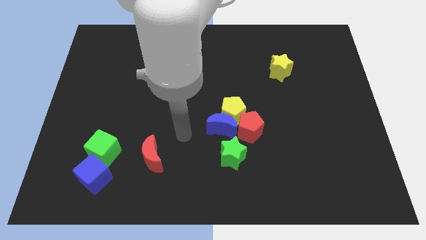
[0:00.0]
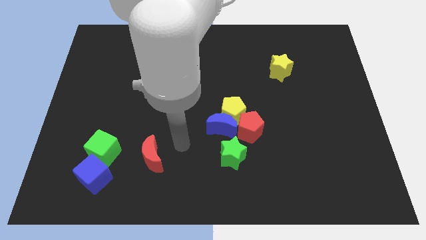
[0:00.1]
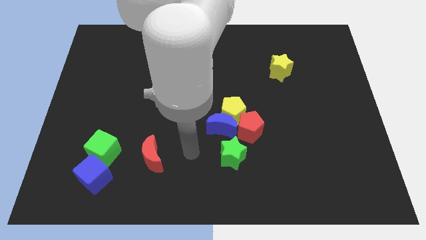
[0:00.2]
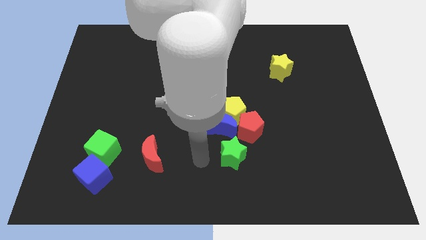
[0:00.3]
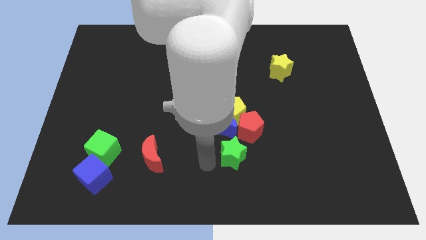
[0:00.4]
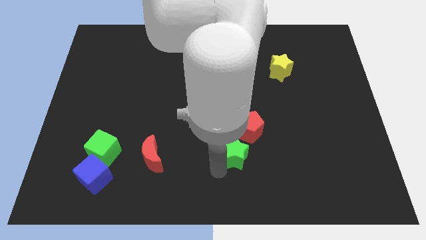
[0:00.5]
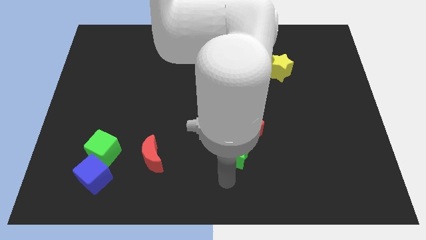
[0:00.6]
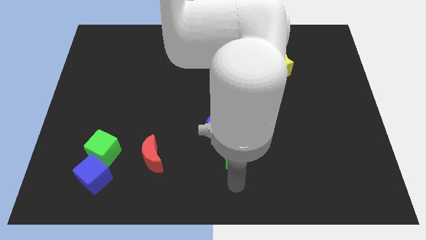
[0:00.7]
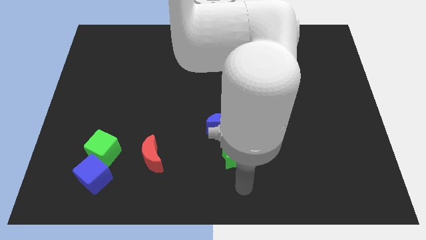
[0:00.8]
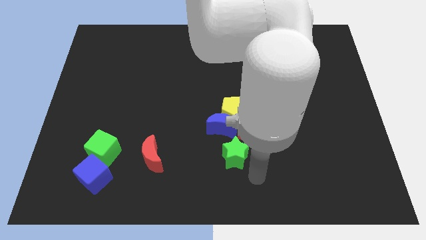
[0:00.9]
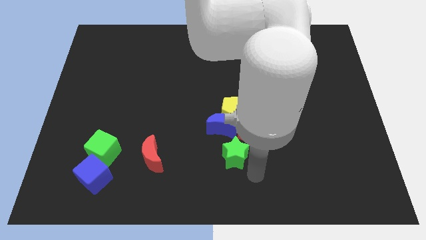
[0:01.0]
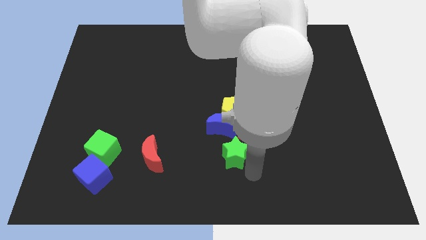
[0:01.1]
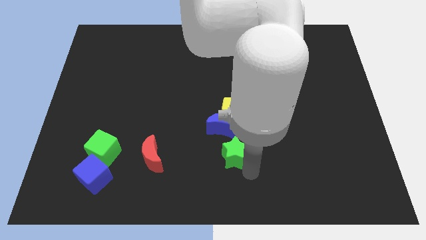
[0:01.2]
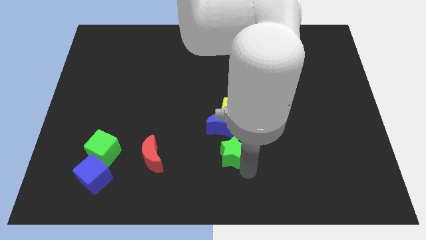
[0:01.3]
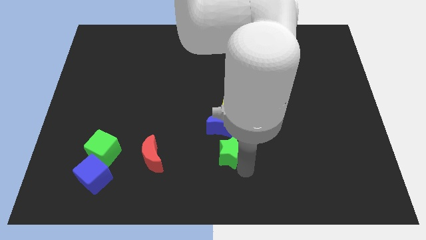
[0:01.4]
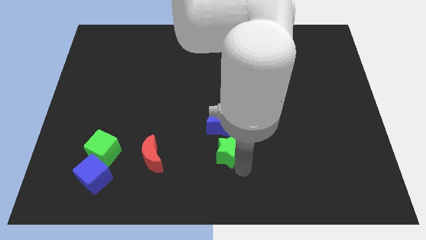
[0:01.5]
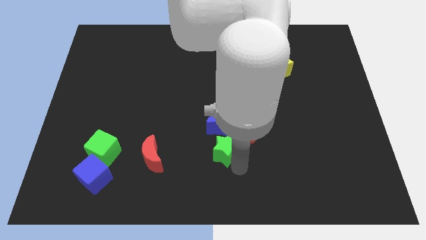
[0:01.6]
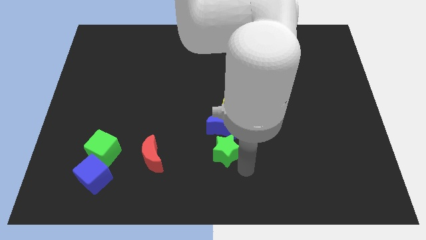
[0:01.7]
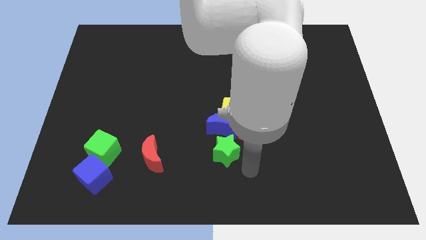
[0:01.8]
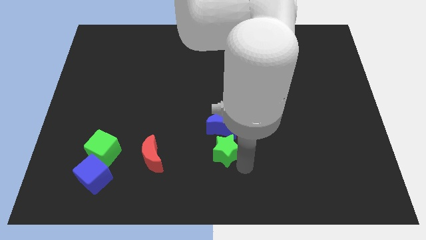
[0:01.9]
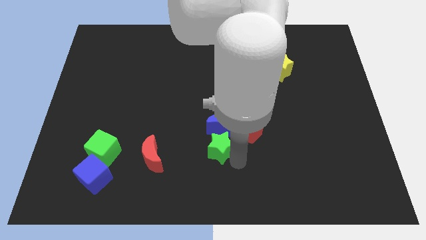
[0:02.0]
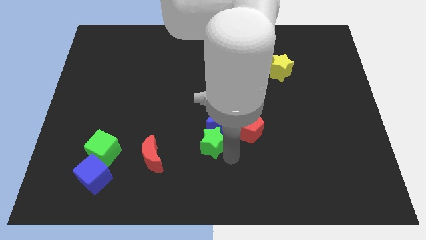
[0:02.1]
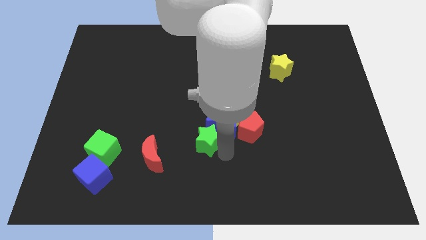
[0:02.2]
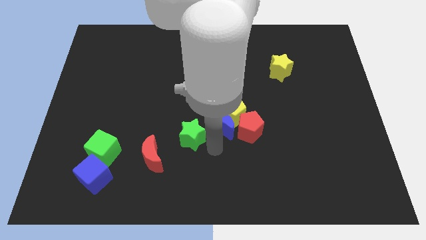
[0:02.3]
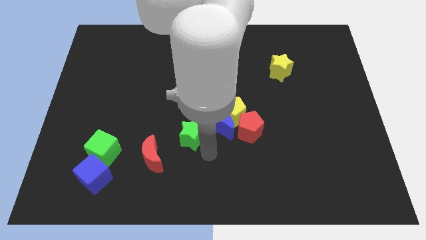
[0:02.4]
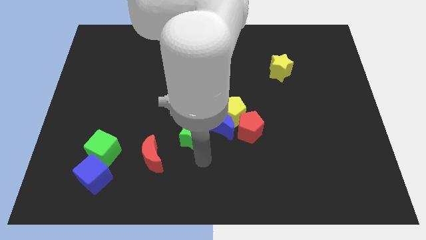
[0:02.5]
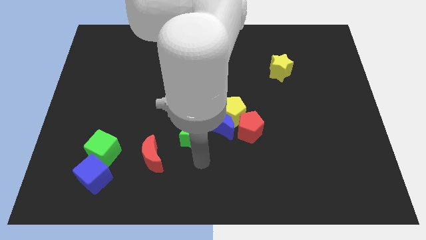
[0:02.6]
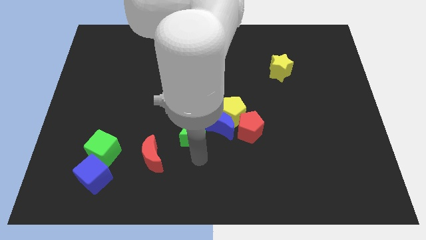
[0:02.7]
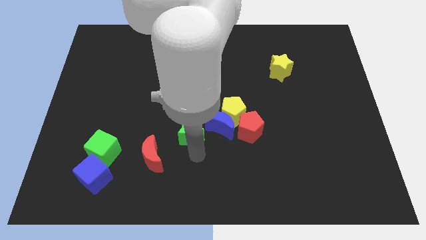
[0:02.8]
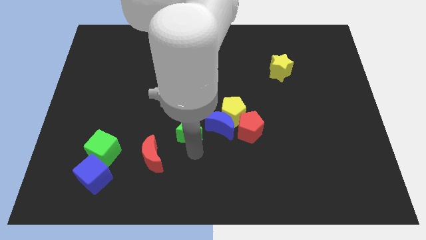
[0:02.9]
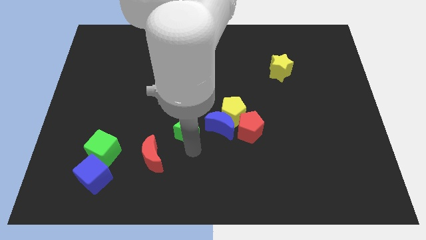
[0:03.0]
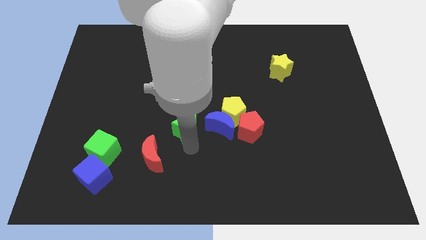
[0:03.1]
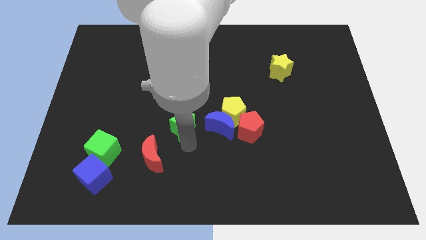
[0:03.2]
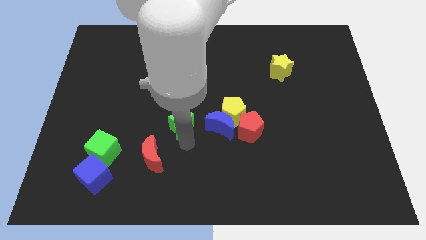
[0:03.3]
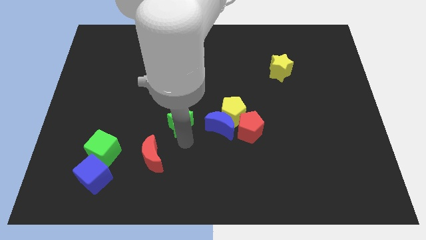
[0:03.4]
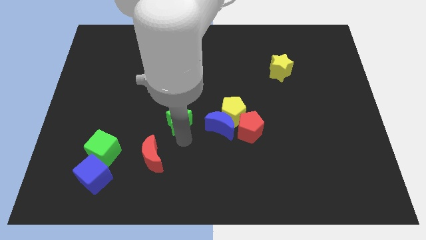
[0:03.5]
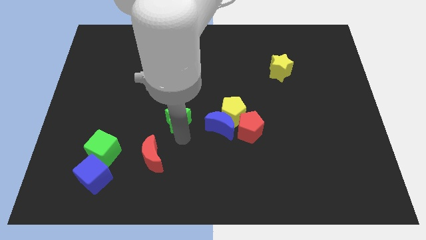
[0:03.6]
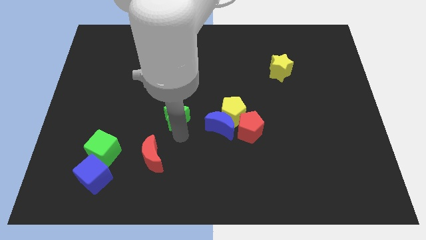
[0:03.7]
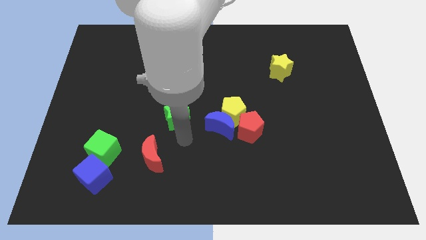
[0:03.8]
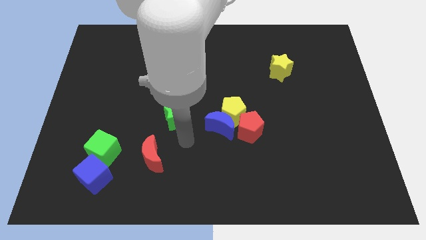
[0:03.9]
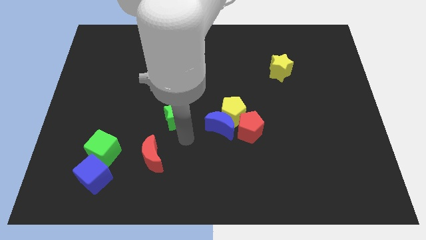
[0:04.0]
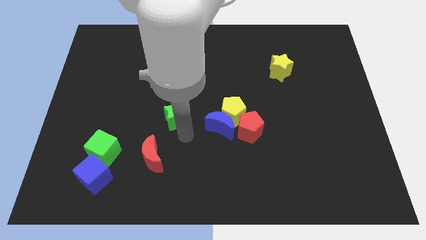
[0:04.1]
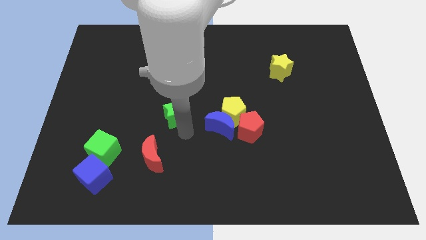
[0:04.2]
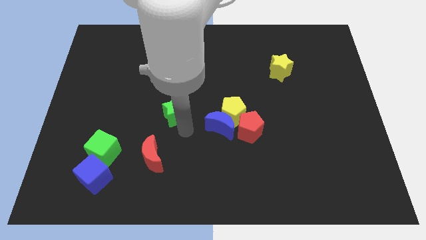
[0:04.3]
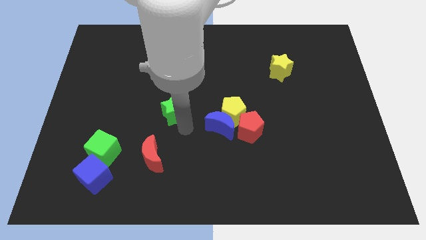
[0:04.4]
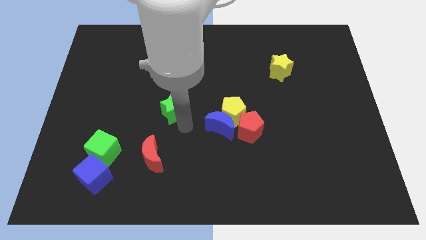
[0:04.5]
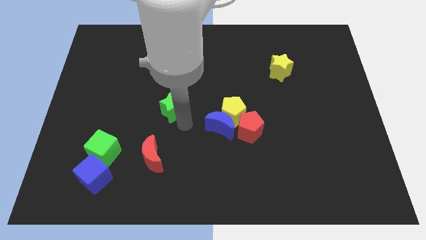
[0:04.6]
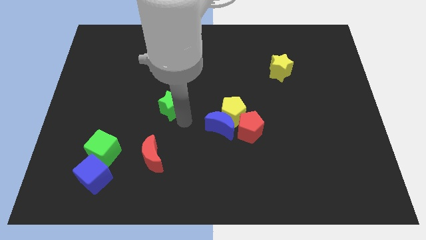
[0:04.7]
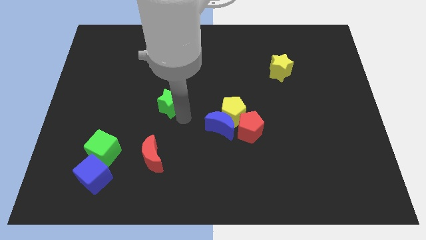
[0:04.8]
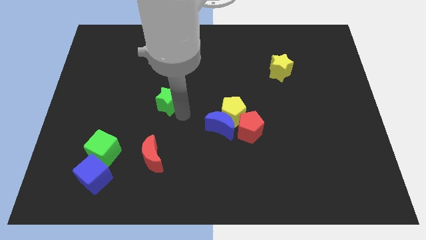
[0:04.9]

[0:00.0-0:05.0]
push the green star diagonally up and left

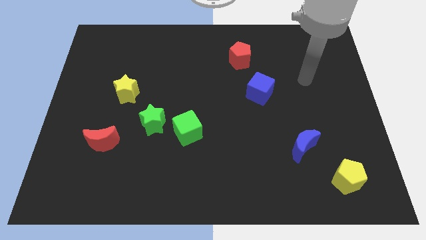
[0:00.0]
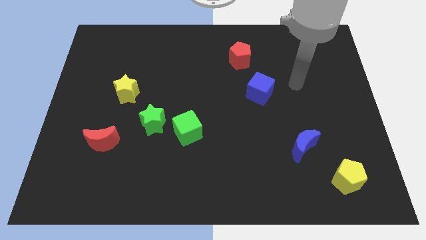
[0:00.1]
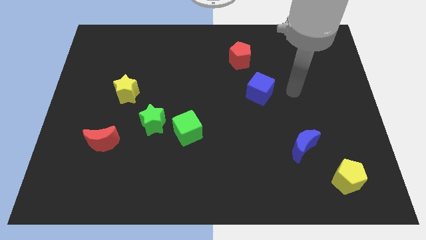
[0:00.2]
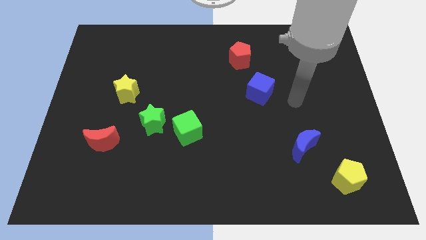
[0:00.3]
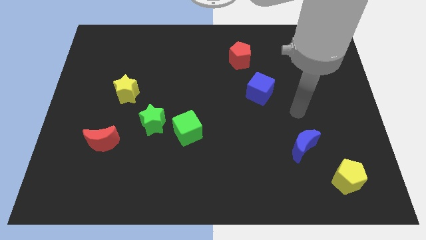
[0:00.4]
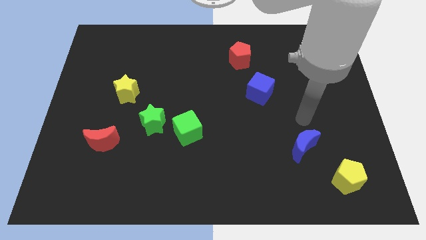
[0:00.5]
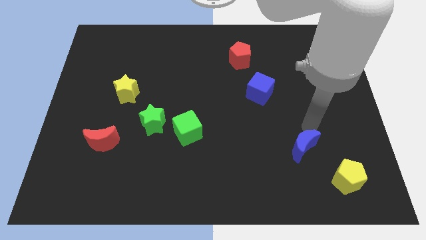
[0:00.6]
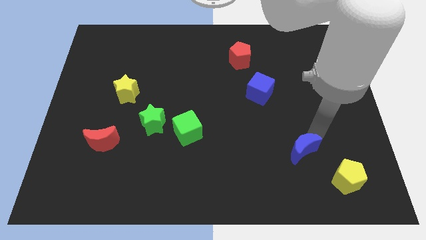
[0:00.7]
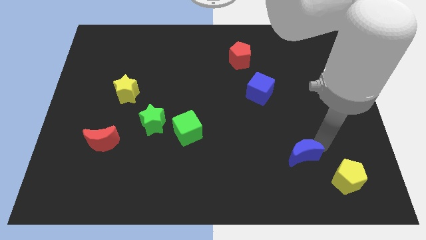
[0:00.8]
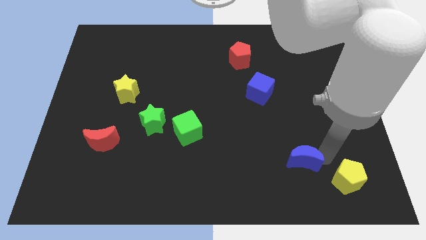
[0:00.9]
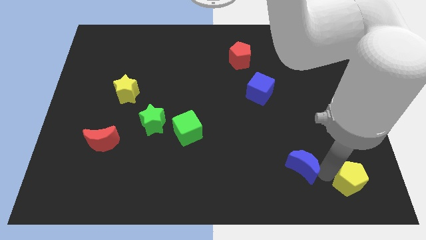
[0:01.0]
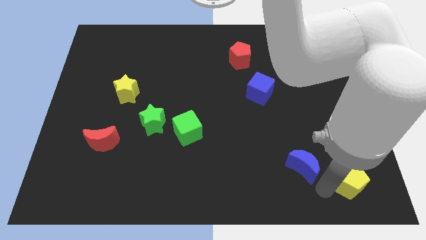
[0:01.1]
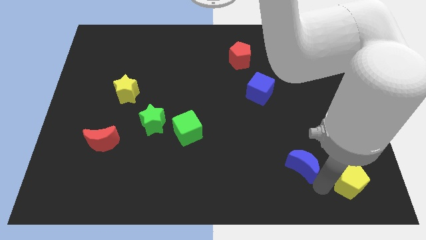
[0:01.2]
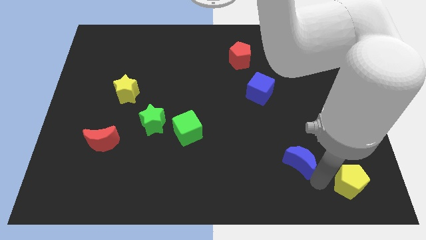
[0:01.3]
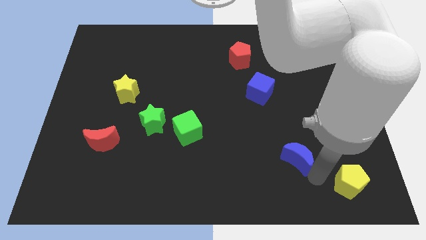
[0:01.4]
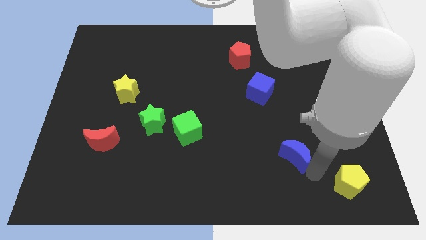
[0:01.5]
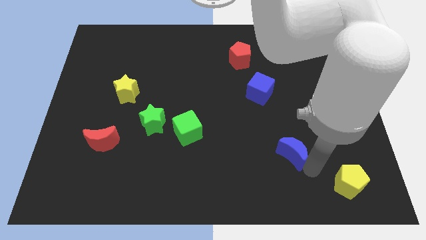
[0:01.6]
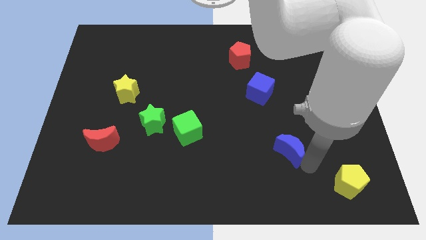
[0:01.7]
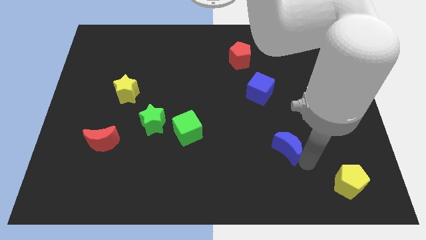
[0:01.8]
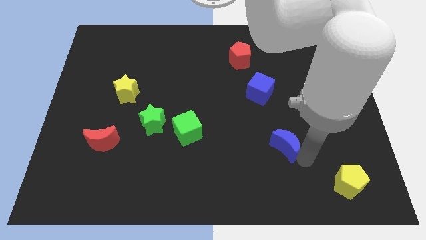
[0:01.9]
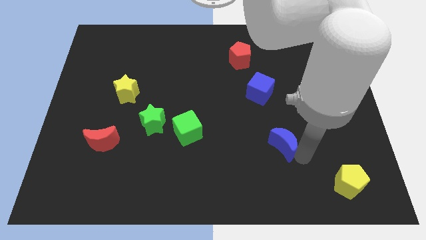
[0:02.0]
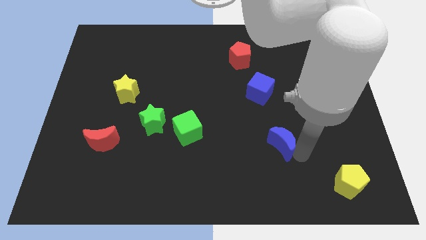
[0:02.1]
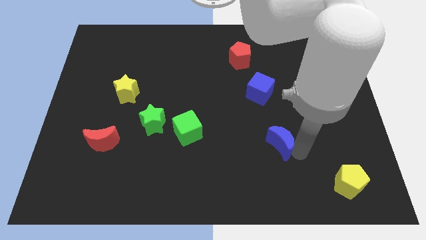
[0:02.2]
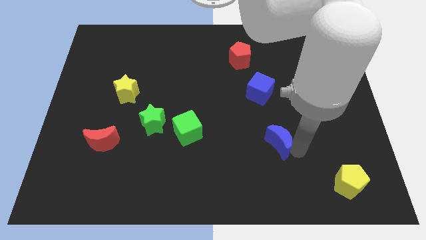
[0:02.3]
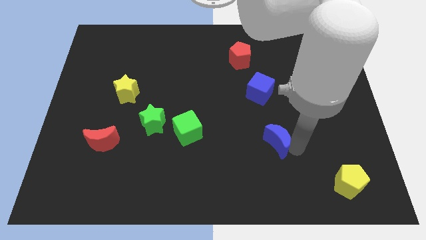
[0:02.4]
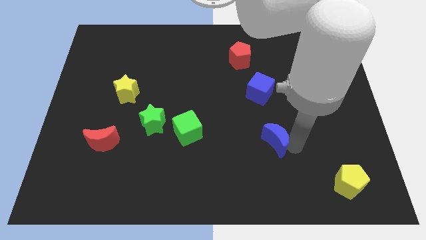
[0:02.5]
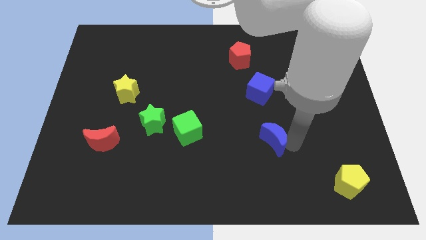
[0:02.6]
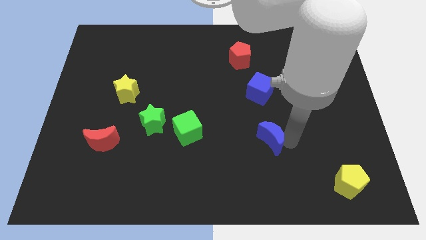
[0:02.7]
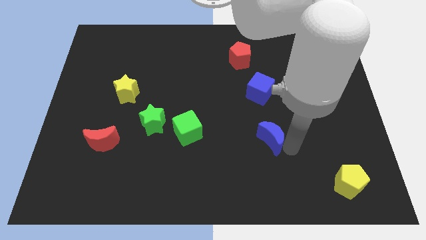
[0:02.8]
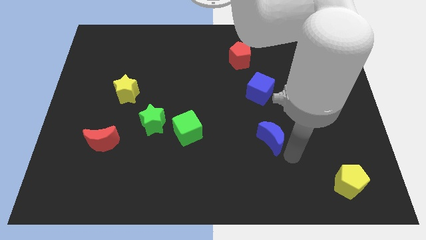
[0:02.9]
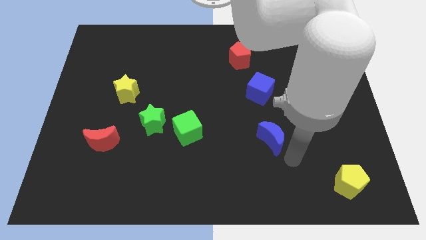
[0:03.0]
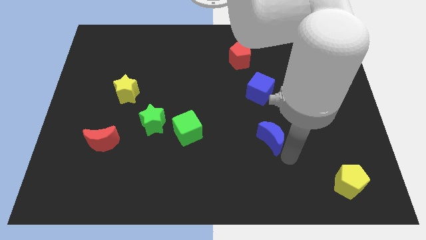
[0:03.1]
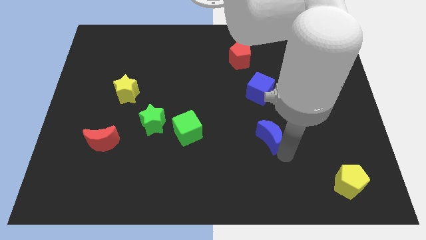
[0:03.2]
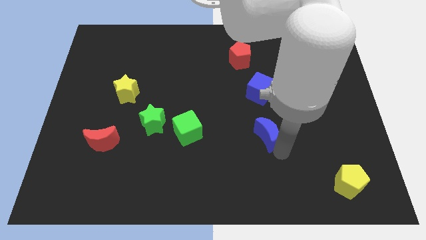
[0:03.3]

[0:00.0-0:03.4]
slightly slide the blue moon upwards and left diagonally
